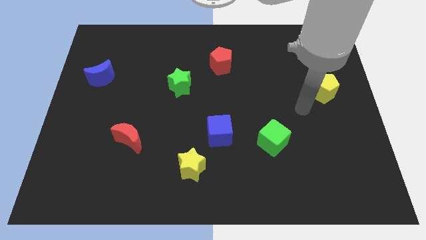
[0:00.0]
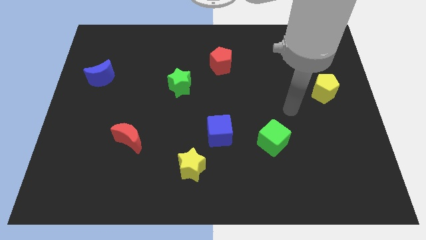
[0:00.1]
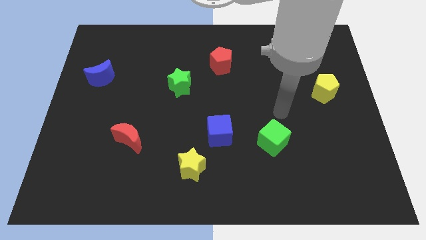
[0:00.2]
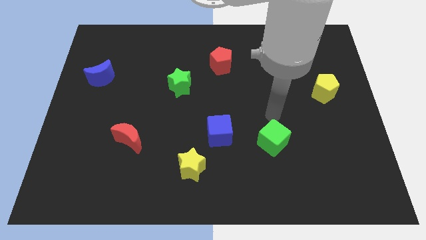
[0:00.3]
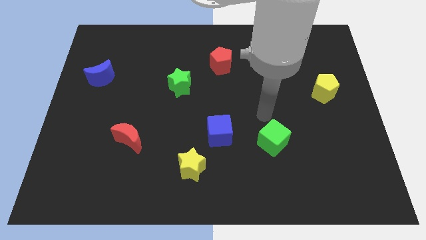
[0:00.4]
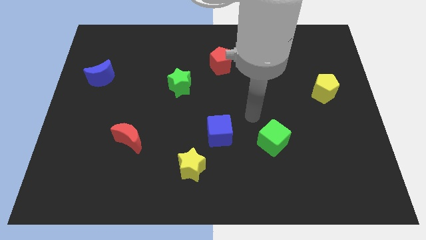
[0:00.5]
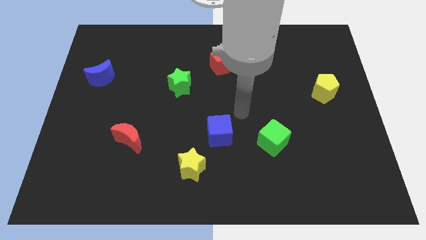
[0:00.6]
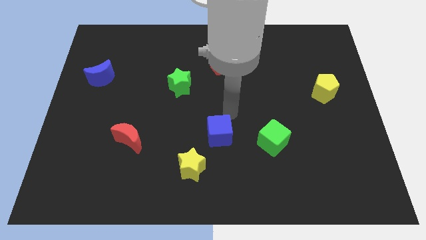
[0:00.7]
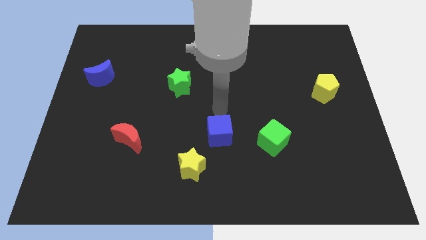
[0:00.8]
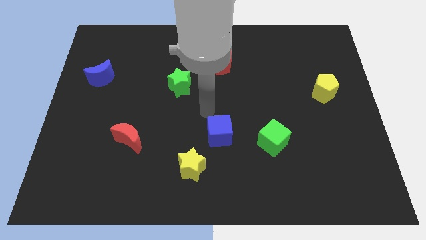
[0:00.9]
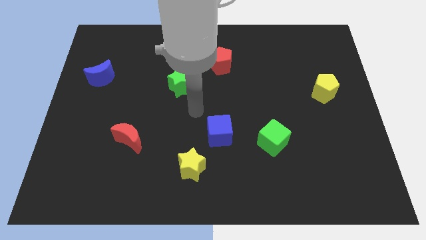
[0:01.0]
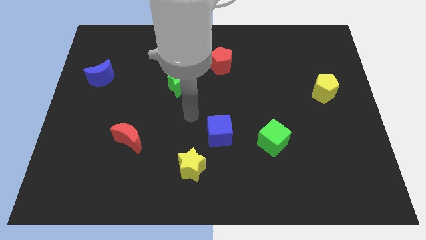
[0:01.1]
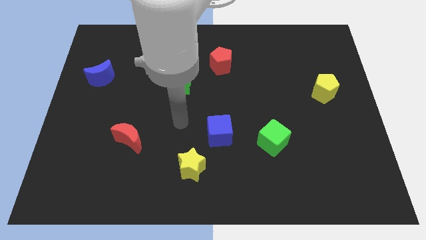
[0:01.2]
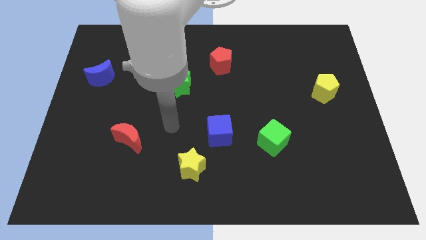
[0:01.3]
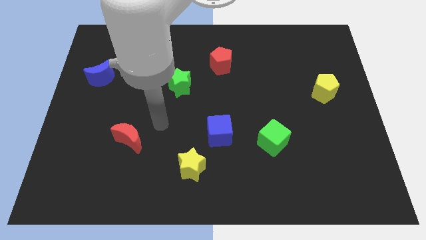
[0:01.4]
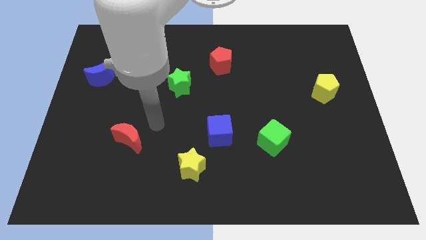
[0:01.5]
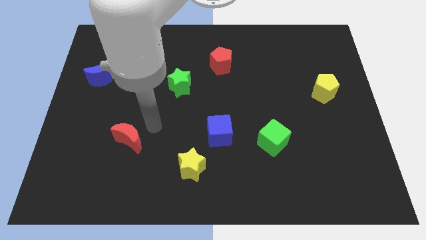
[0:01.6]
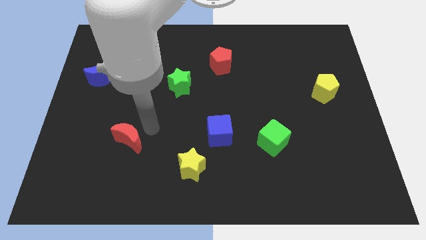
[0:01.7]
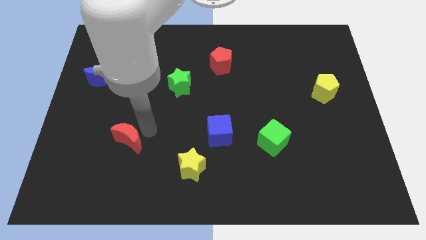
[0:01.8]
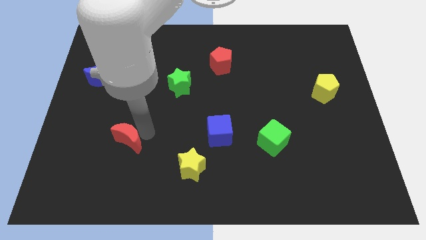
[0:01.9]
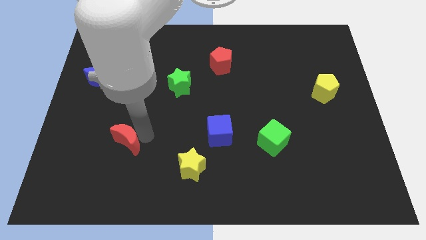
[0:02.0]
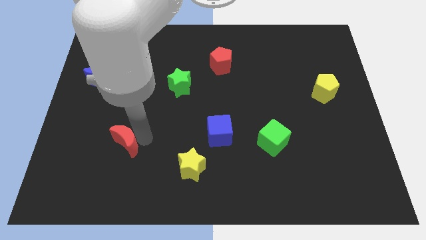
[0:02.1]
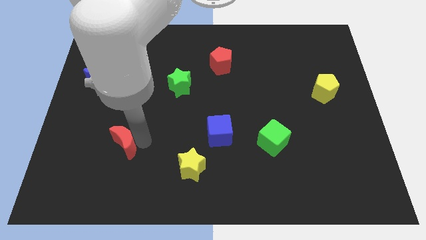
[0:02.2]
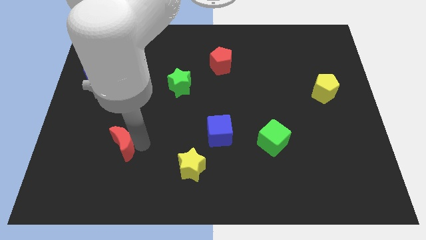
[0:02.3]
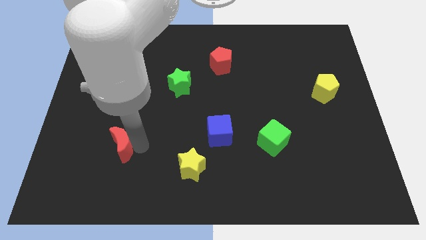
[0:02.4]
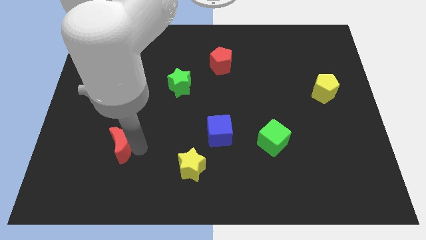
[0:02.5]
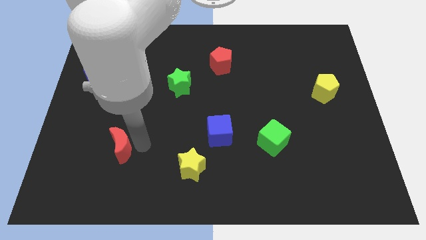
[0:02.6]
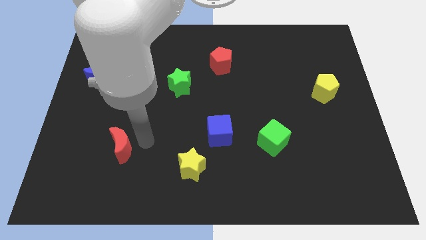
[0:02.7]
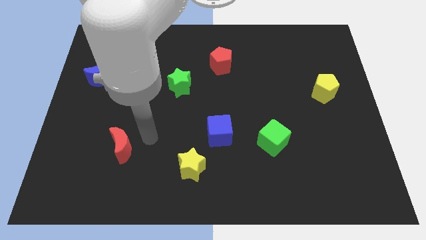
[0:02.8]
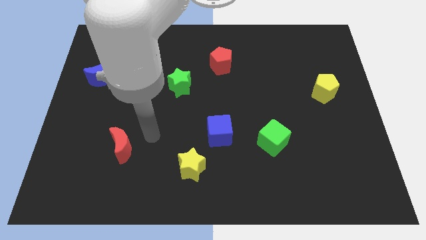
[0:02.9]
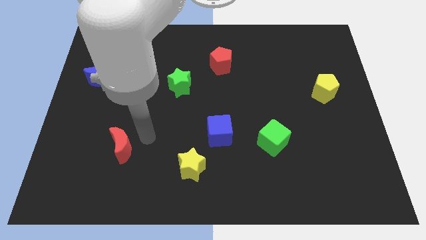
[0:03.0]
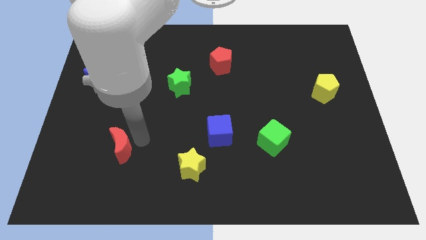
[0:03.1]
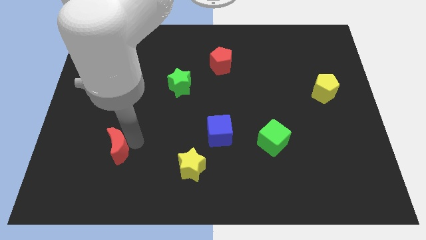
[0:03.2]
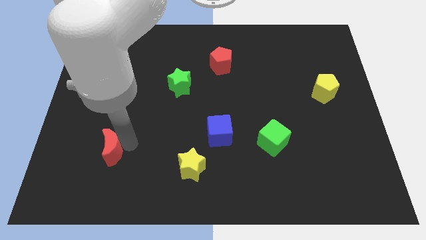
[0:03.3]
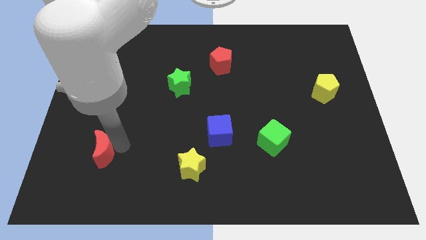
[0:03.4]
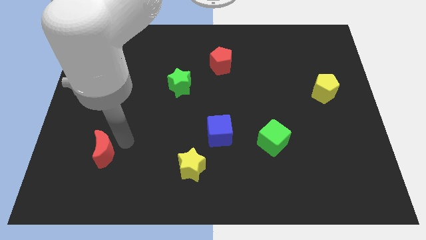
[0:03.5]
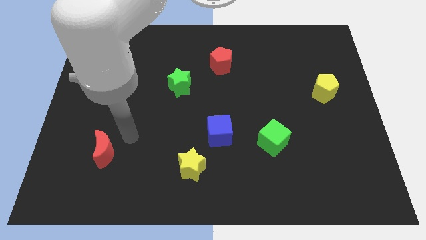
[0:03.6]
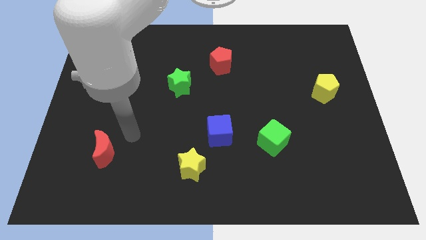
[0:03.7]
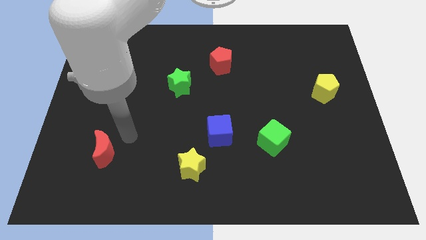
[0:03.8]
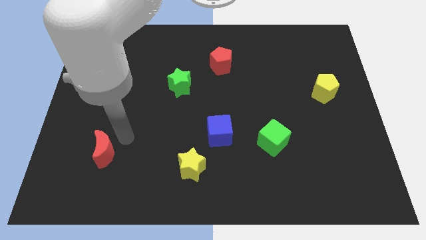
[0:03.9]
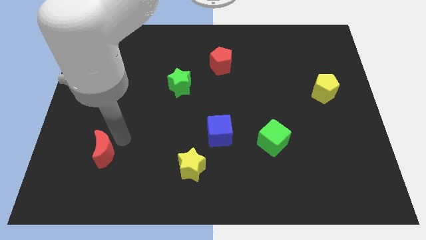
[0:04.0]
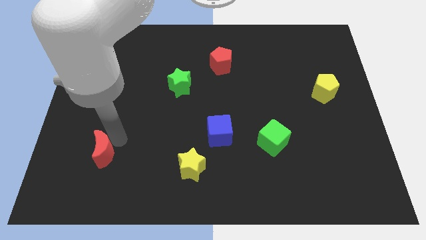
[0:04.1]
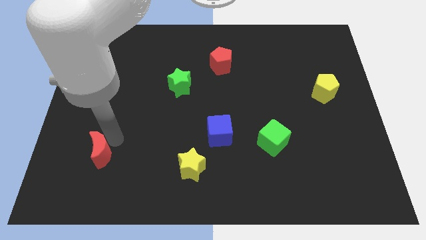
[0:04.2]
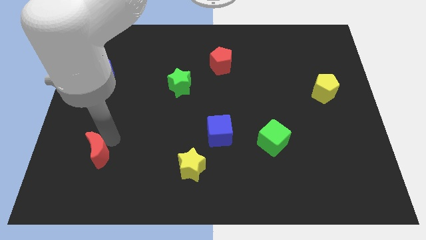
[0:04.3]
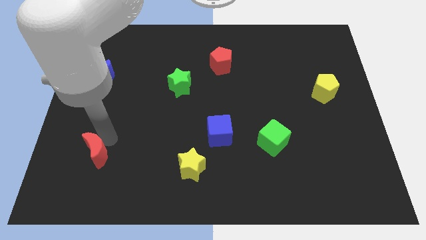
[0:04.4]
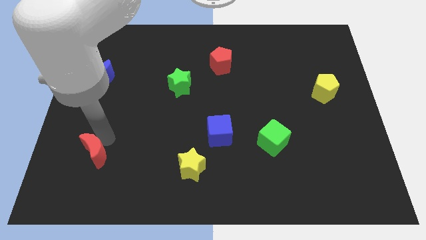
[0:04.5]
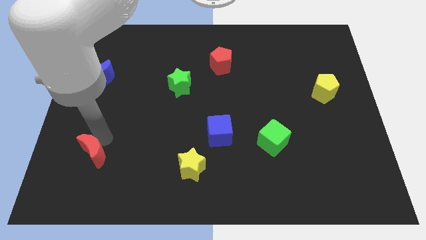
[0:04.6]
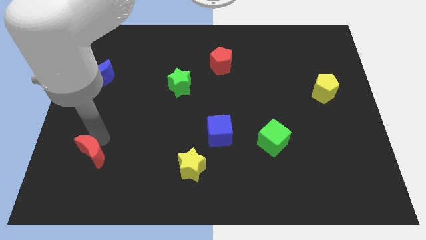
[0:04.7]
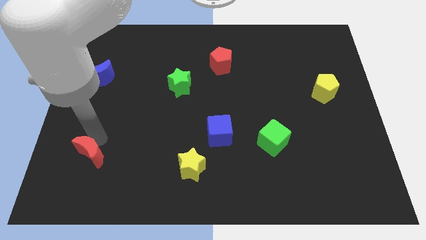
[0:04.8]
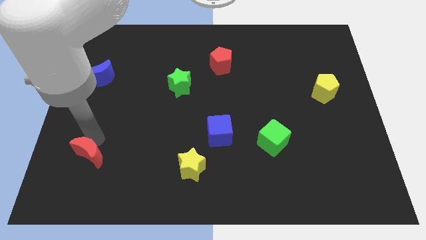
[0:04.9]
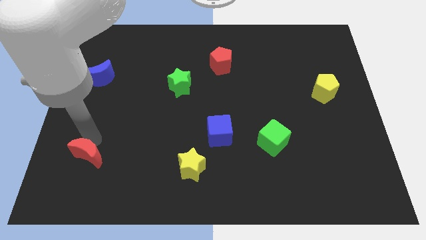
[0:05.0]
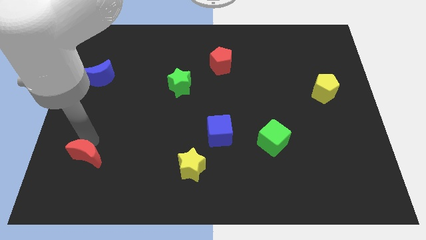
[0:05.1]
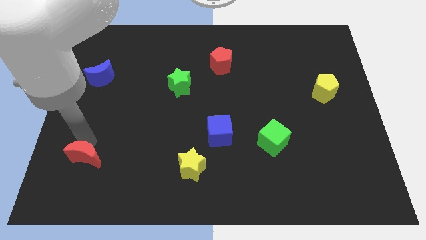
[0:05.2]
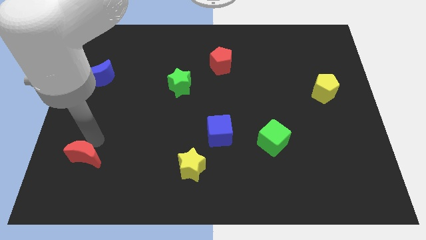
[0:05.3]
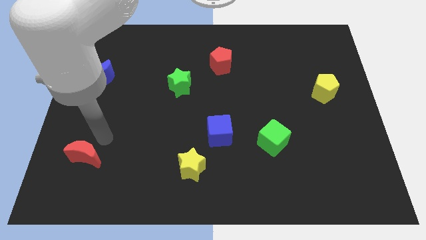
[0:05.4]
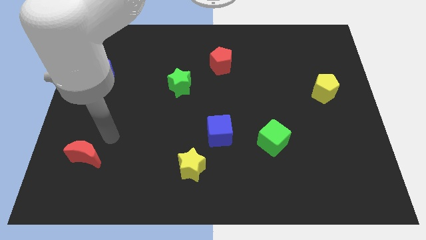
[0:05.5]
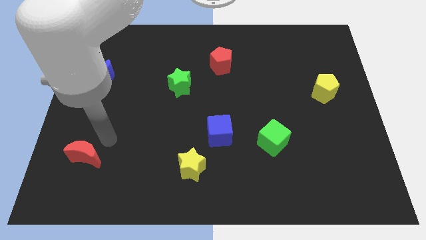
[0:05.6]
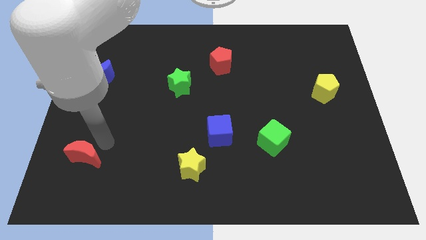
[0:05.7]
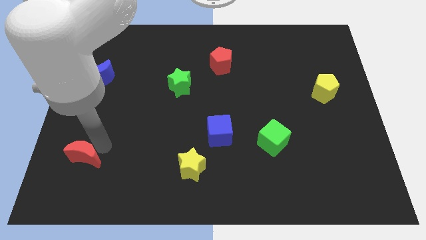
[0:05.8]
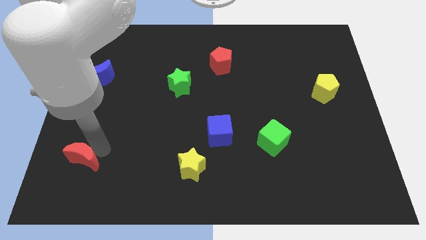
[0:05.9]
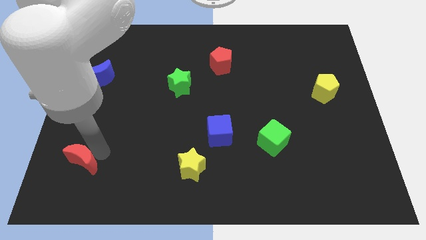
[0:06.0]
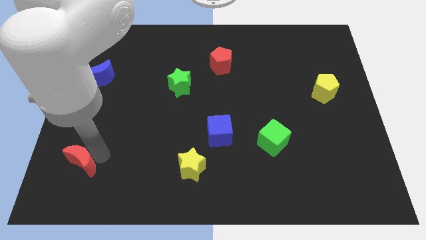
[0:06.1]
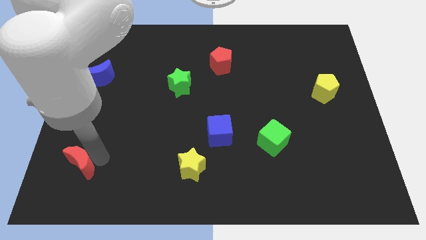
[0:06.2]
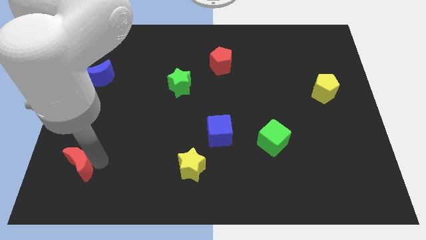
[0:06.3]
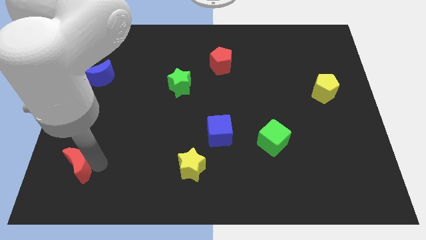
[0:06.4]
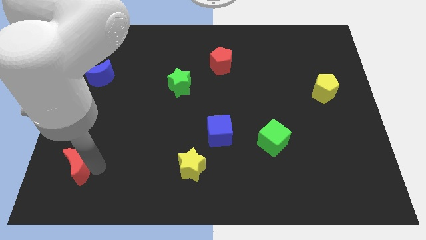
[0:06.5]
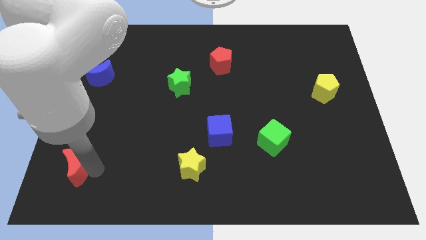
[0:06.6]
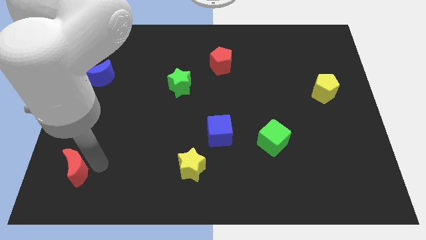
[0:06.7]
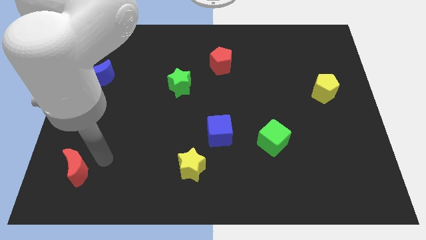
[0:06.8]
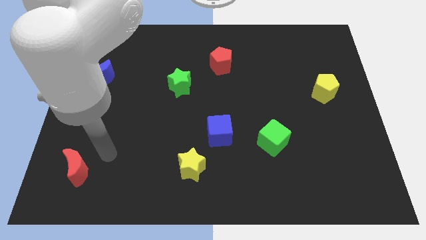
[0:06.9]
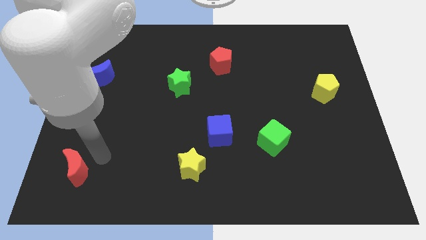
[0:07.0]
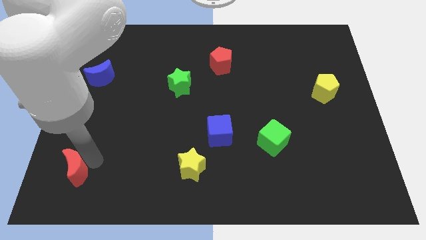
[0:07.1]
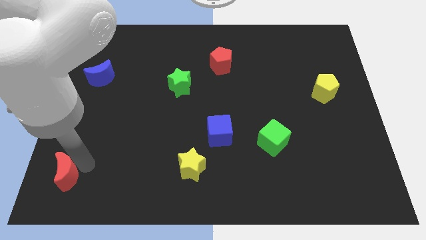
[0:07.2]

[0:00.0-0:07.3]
put the red moon to the bottom left
